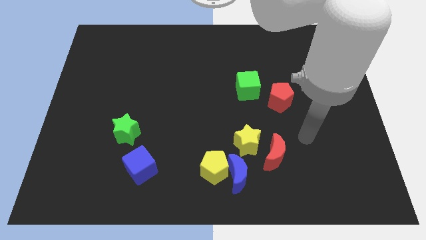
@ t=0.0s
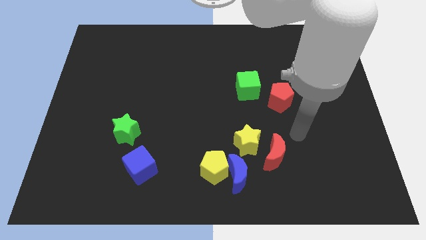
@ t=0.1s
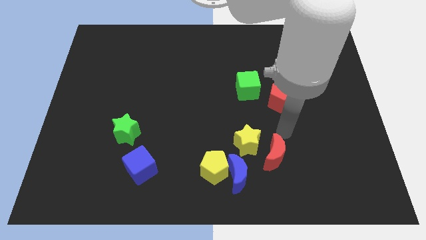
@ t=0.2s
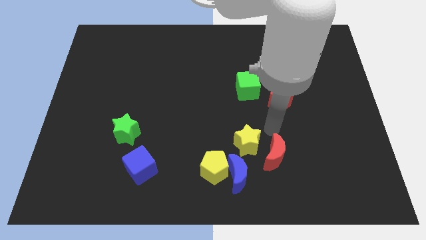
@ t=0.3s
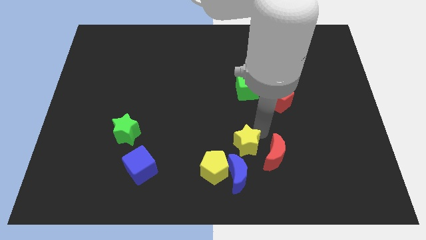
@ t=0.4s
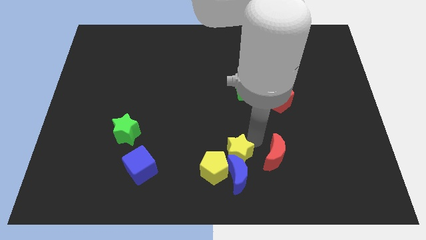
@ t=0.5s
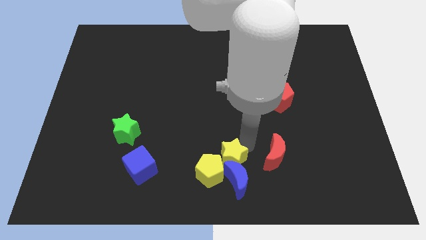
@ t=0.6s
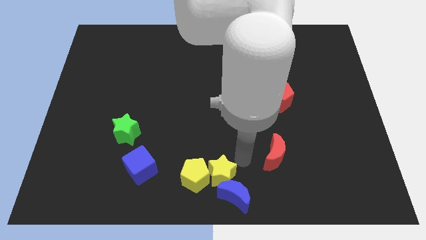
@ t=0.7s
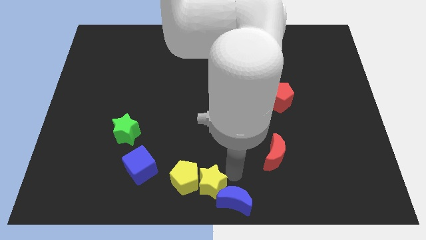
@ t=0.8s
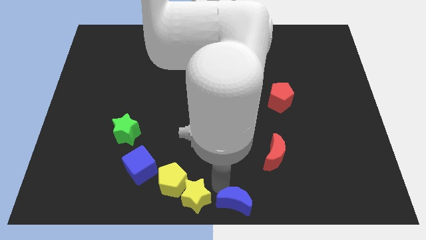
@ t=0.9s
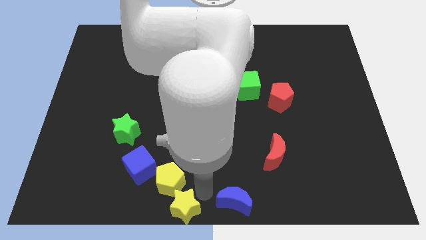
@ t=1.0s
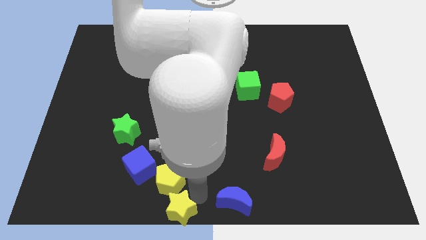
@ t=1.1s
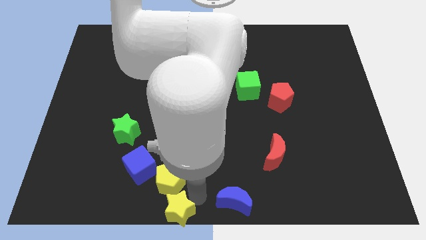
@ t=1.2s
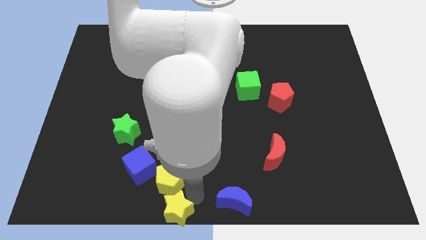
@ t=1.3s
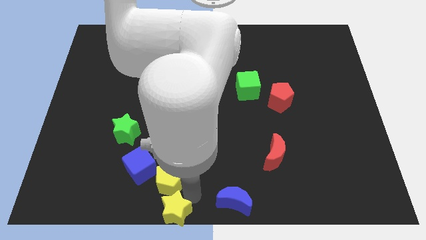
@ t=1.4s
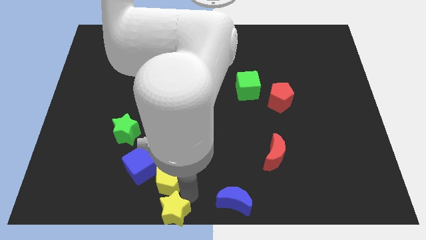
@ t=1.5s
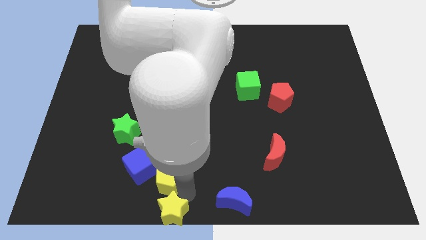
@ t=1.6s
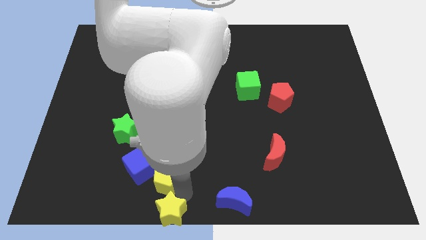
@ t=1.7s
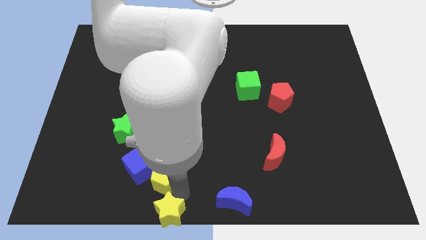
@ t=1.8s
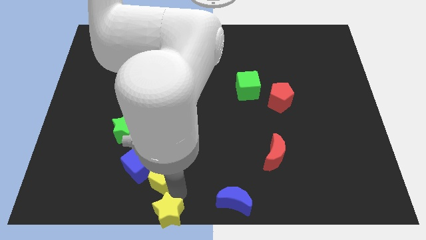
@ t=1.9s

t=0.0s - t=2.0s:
move the yellow pentagon away from the blue moon and yellow star

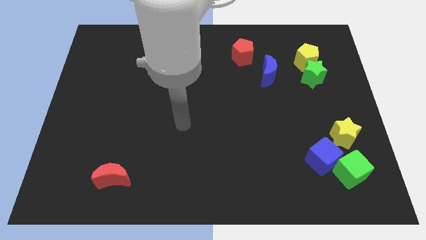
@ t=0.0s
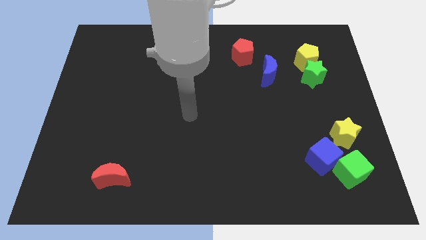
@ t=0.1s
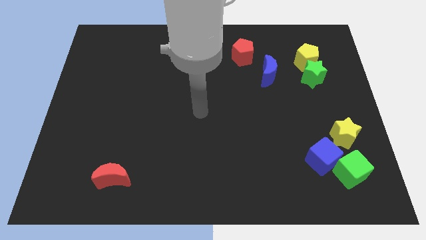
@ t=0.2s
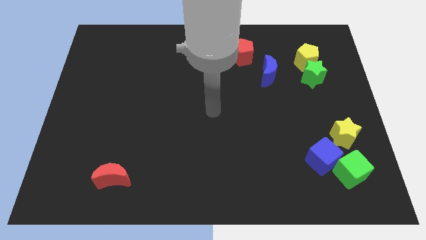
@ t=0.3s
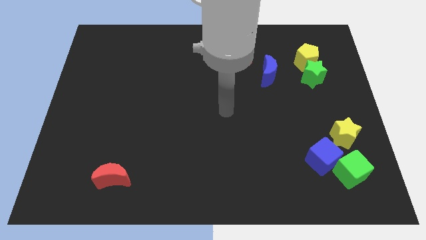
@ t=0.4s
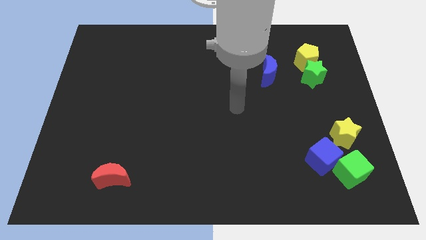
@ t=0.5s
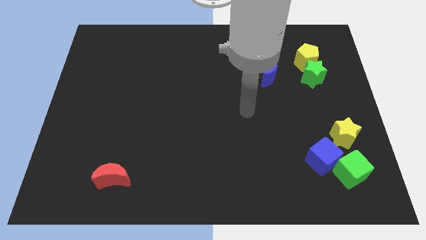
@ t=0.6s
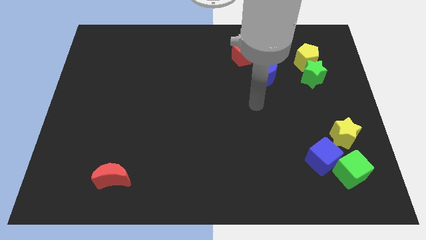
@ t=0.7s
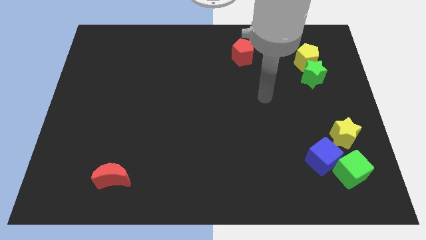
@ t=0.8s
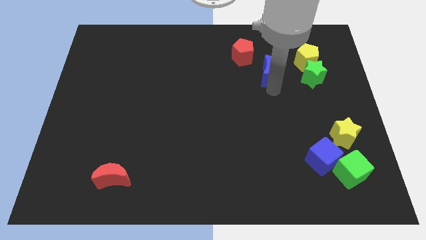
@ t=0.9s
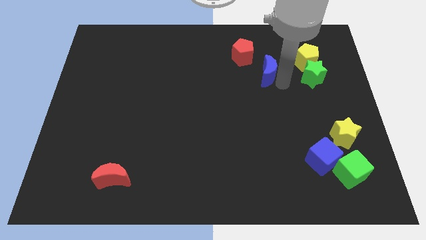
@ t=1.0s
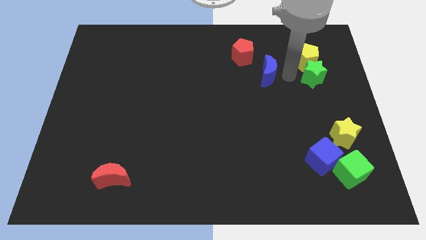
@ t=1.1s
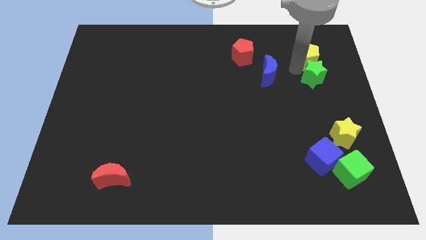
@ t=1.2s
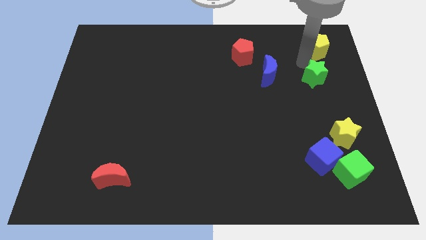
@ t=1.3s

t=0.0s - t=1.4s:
move the green star away from the yellow pentagon

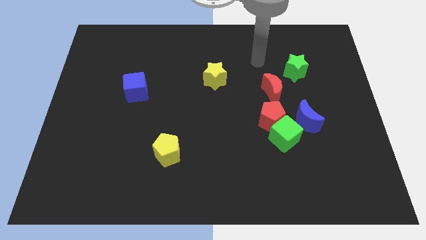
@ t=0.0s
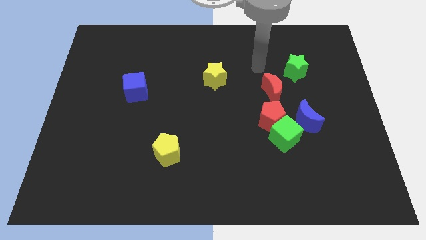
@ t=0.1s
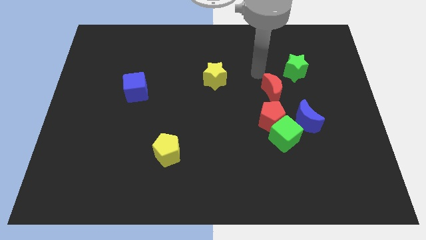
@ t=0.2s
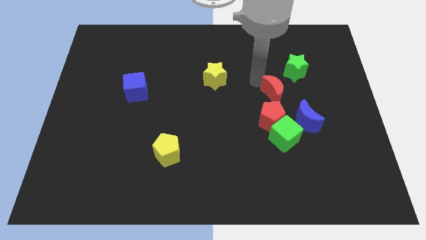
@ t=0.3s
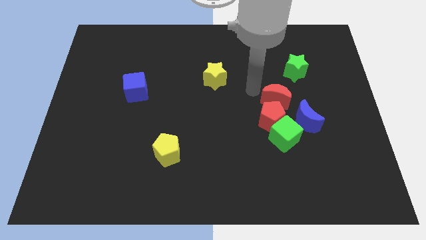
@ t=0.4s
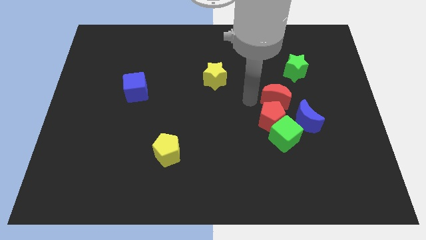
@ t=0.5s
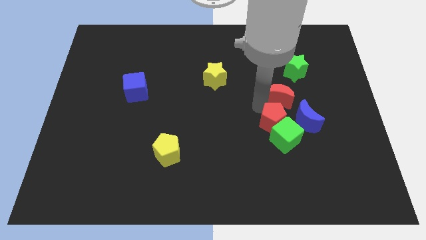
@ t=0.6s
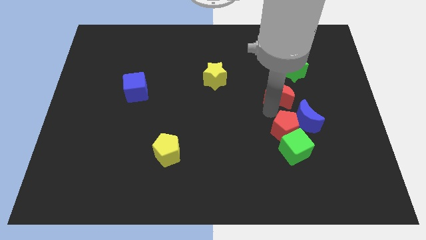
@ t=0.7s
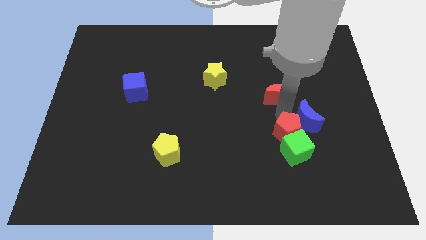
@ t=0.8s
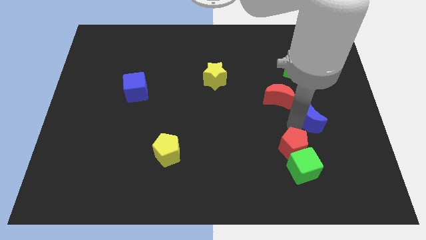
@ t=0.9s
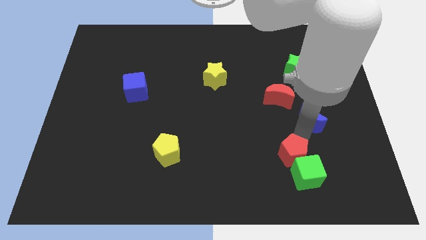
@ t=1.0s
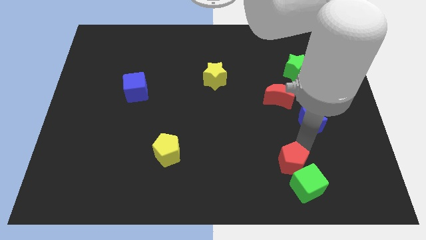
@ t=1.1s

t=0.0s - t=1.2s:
separate the green cube from the red pentagon and blue moon

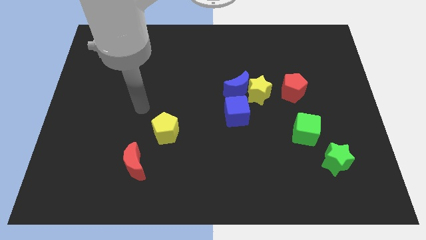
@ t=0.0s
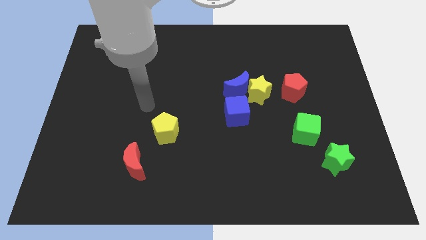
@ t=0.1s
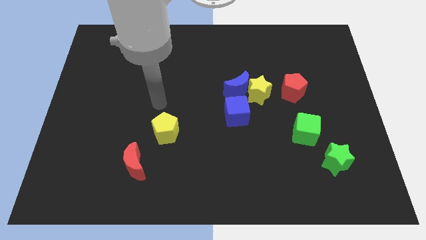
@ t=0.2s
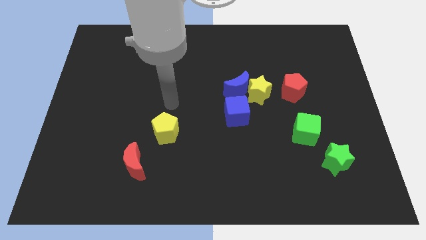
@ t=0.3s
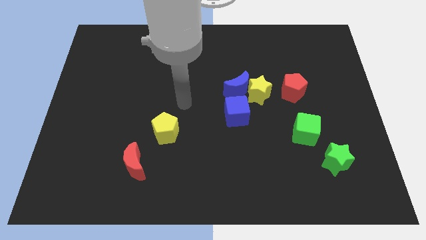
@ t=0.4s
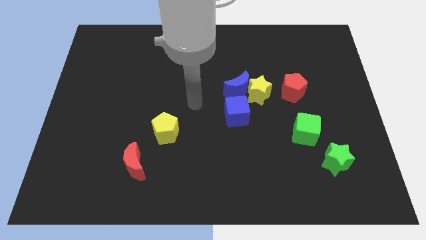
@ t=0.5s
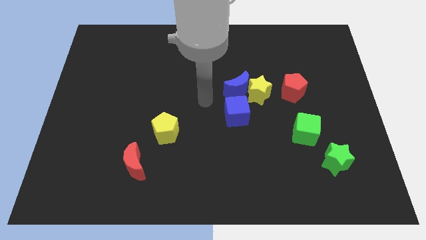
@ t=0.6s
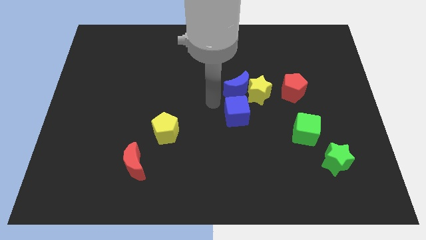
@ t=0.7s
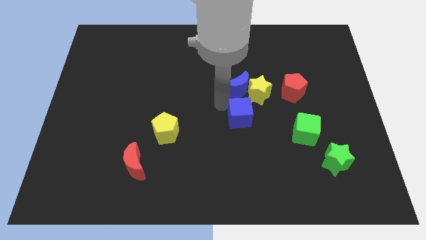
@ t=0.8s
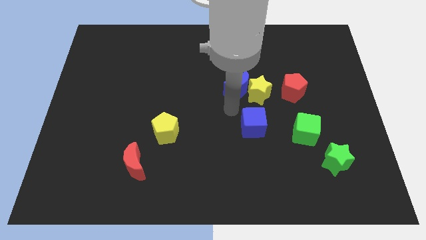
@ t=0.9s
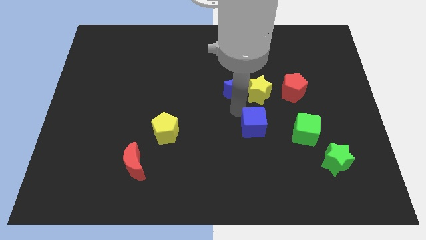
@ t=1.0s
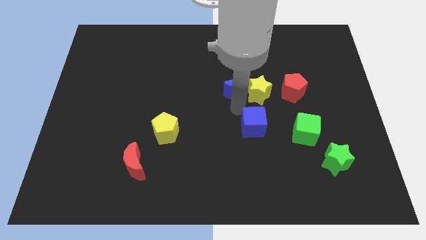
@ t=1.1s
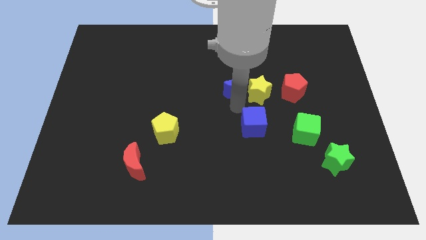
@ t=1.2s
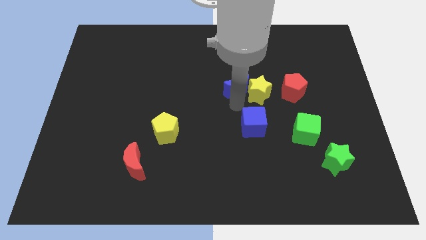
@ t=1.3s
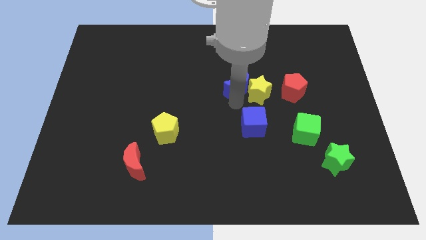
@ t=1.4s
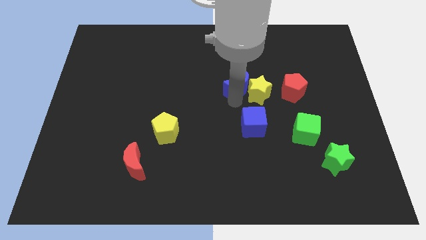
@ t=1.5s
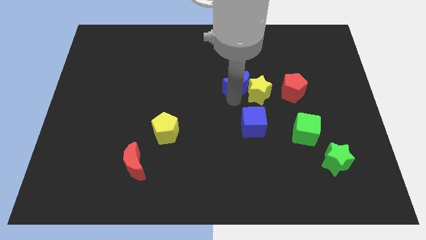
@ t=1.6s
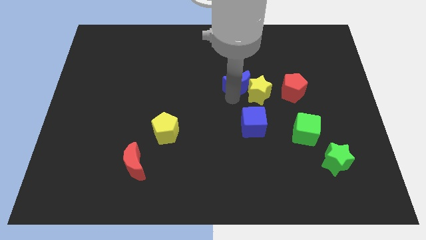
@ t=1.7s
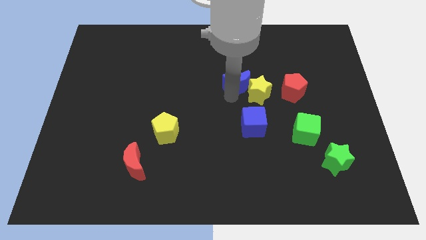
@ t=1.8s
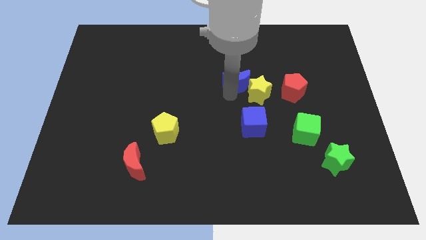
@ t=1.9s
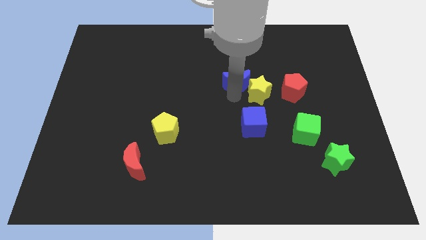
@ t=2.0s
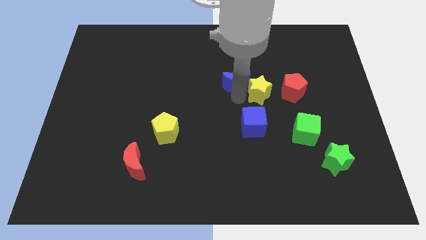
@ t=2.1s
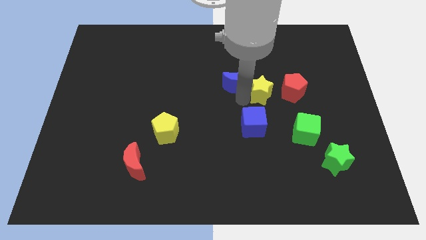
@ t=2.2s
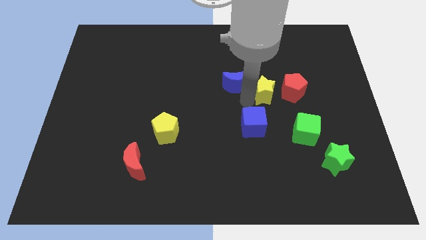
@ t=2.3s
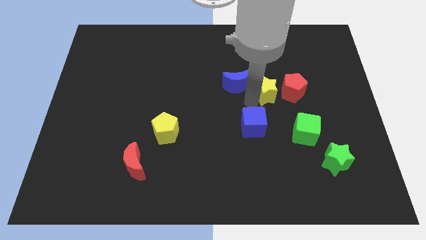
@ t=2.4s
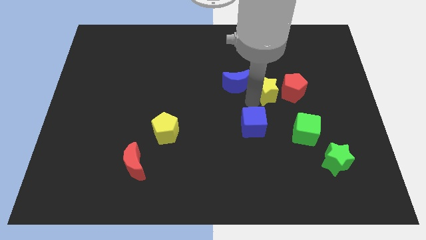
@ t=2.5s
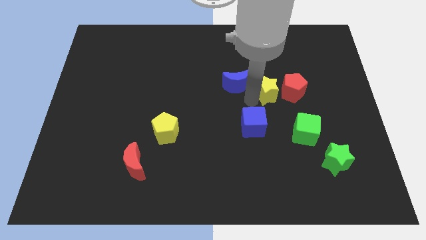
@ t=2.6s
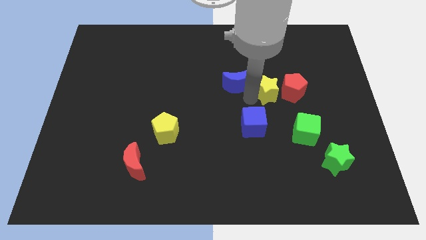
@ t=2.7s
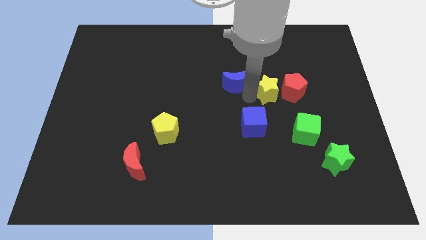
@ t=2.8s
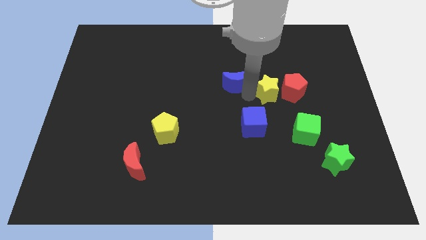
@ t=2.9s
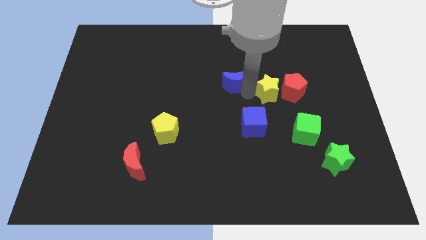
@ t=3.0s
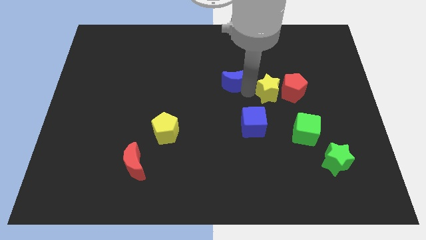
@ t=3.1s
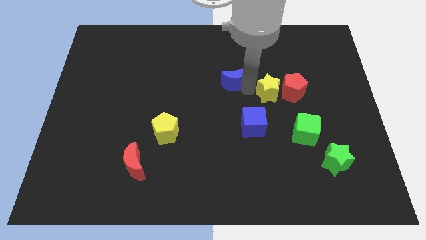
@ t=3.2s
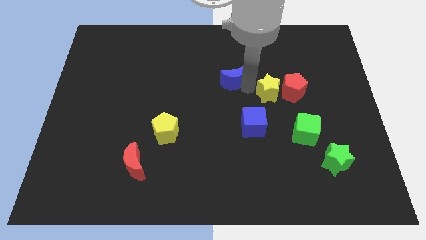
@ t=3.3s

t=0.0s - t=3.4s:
move the blue moon away from the yellow star and blue cube

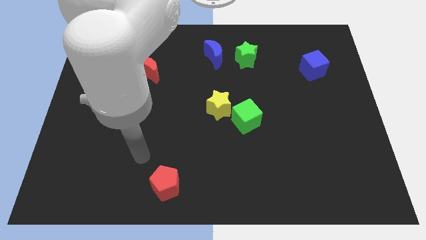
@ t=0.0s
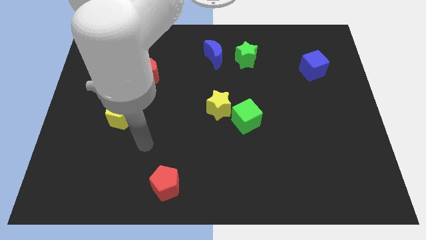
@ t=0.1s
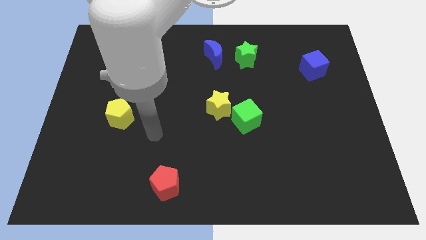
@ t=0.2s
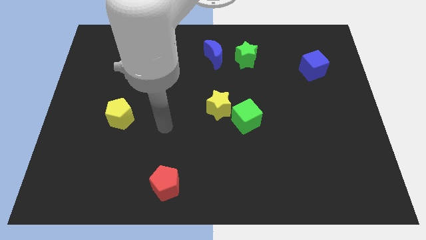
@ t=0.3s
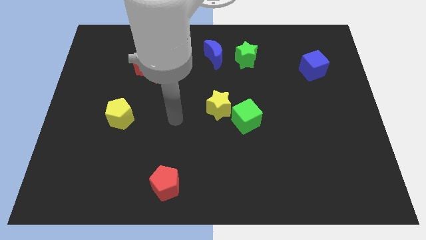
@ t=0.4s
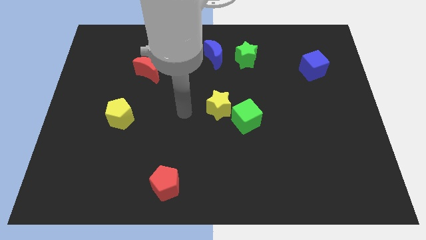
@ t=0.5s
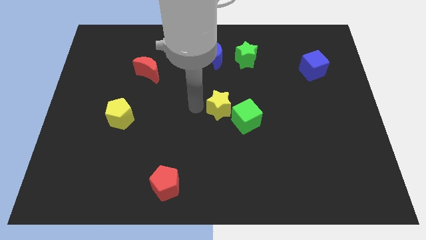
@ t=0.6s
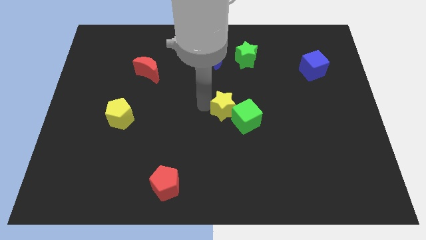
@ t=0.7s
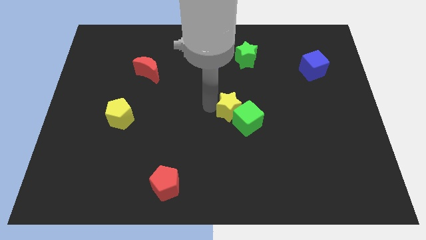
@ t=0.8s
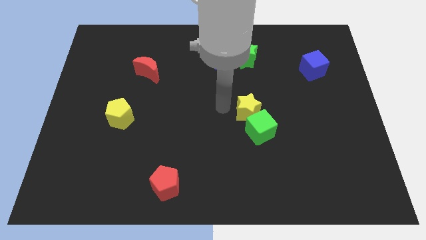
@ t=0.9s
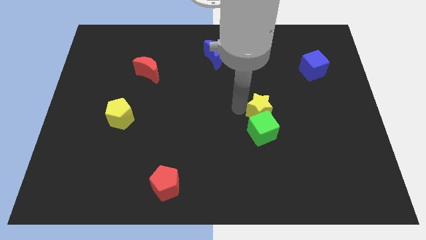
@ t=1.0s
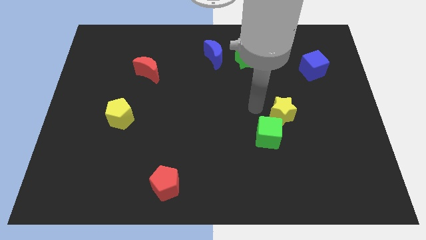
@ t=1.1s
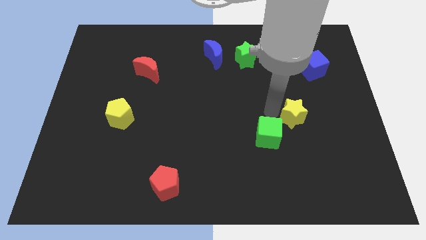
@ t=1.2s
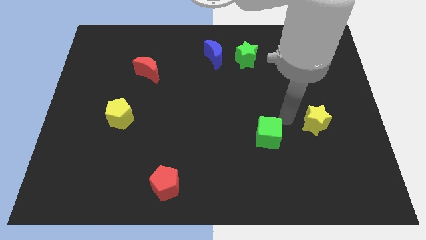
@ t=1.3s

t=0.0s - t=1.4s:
pull the green cube apart from the yellow star
